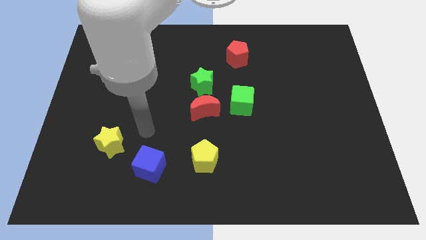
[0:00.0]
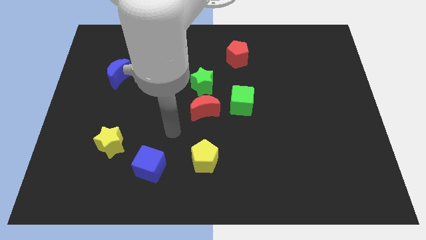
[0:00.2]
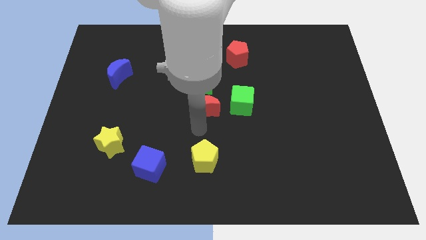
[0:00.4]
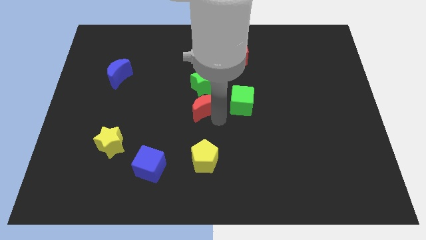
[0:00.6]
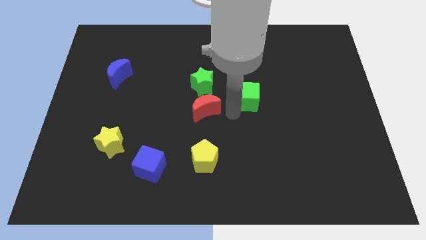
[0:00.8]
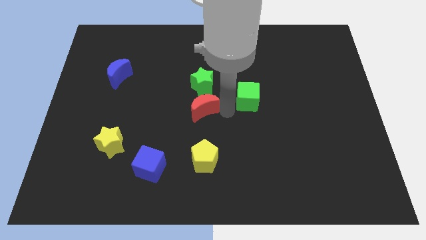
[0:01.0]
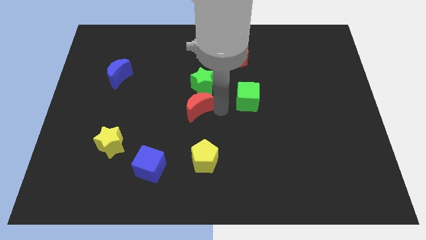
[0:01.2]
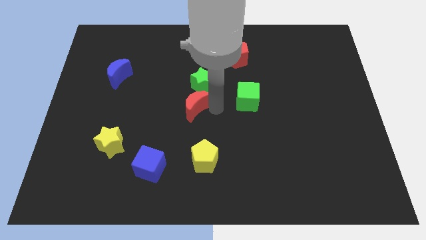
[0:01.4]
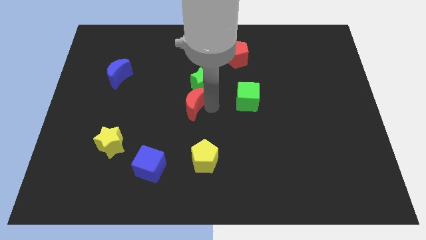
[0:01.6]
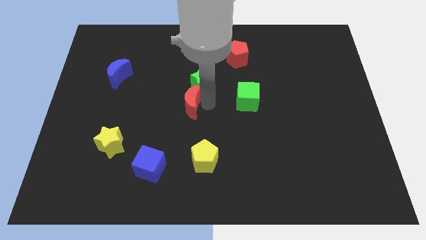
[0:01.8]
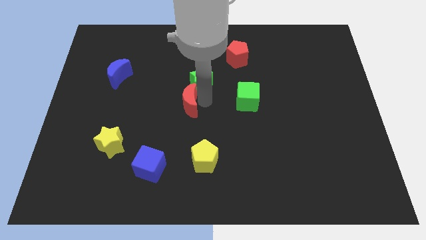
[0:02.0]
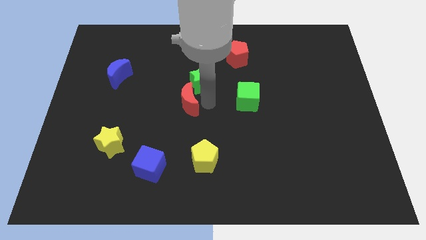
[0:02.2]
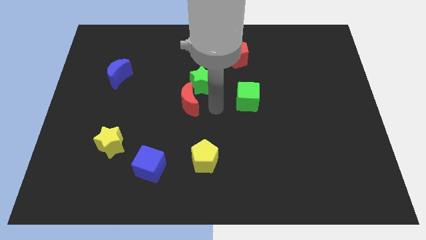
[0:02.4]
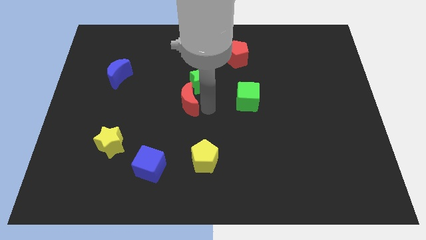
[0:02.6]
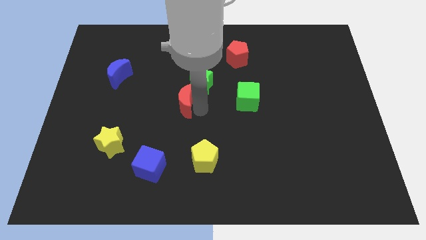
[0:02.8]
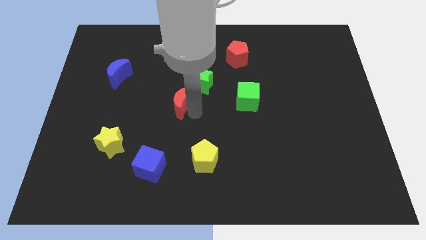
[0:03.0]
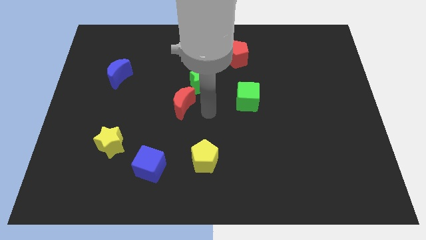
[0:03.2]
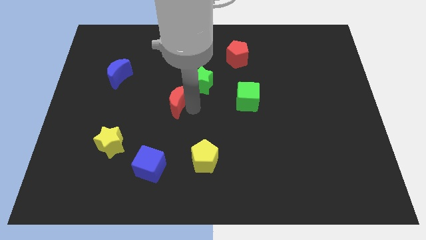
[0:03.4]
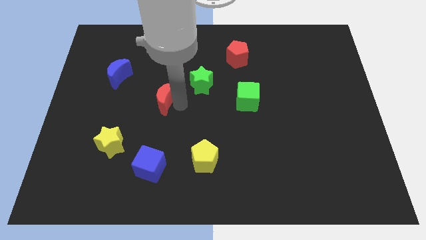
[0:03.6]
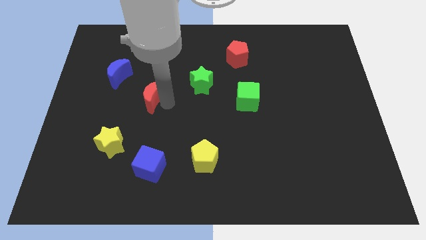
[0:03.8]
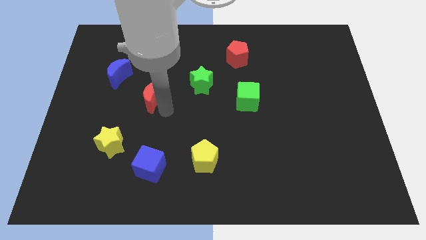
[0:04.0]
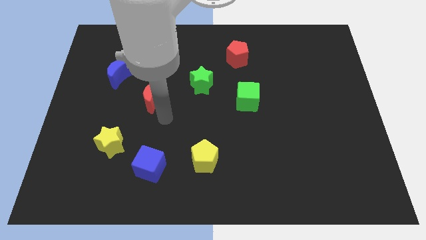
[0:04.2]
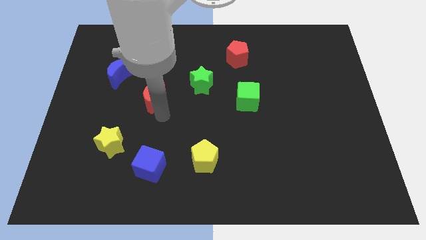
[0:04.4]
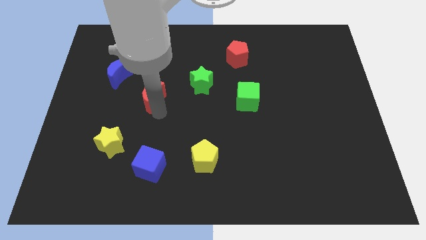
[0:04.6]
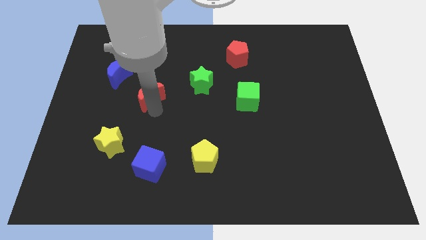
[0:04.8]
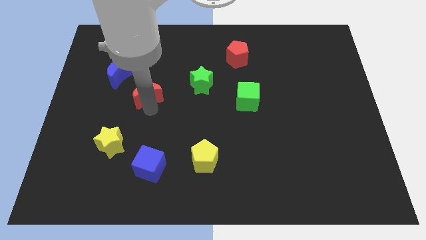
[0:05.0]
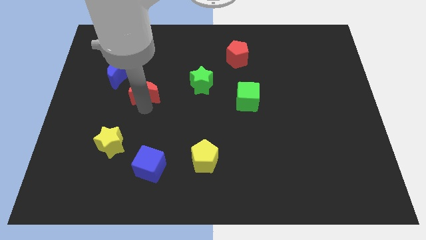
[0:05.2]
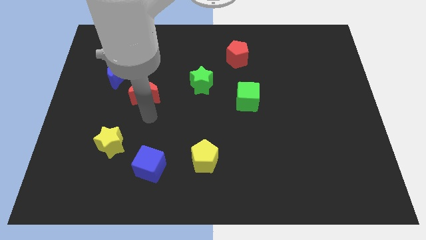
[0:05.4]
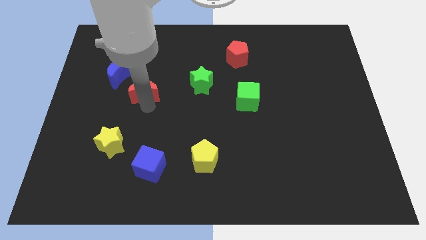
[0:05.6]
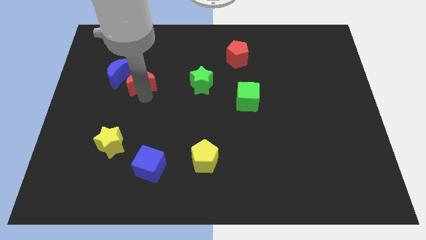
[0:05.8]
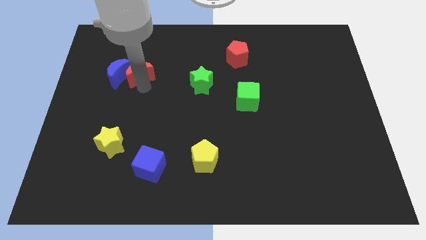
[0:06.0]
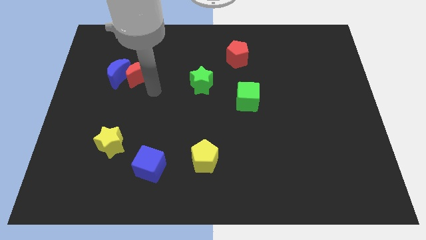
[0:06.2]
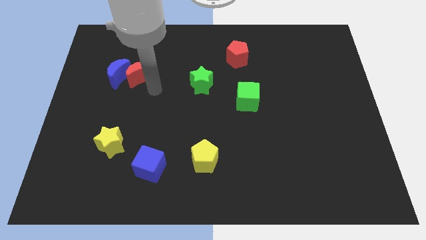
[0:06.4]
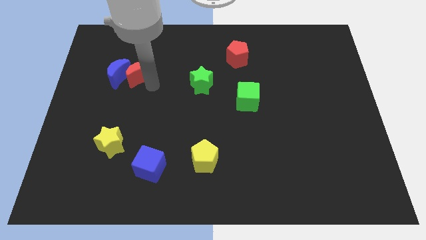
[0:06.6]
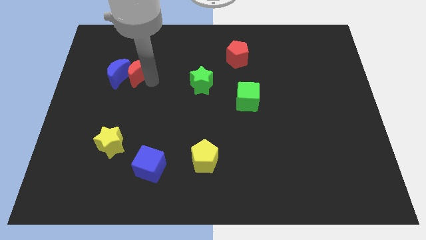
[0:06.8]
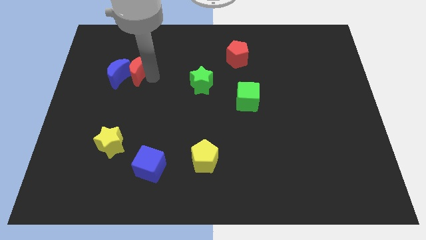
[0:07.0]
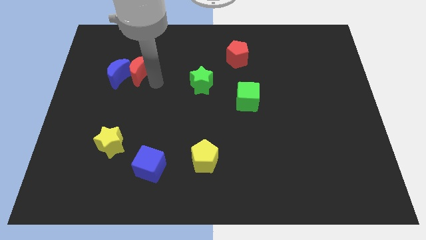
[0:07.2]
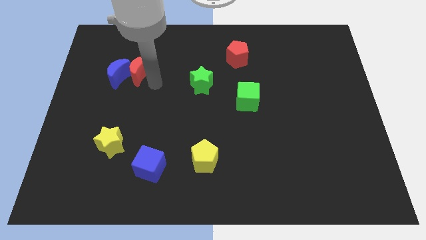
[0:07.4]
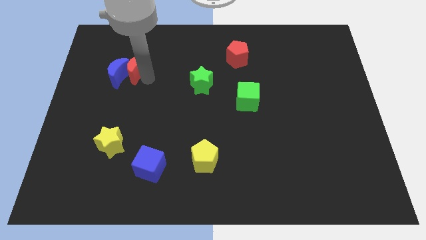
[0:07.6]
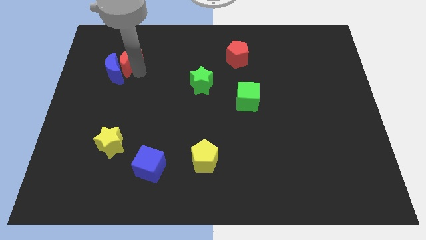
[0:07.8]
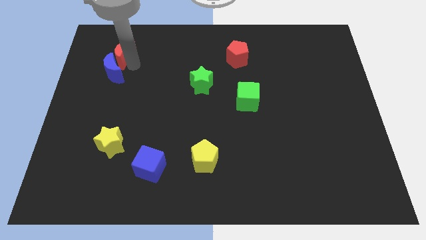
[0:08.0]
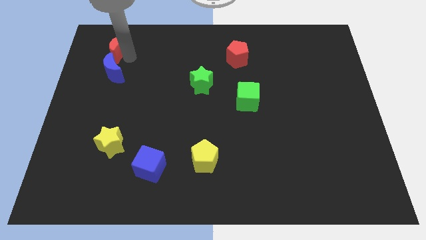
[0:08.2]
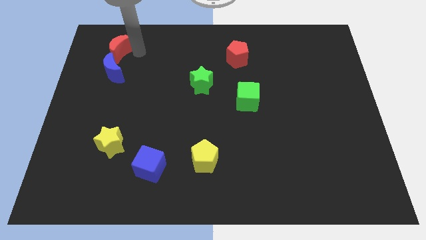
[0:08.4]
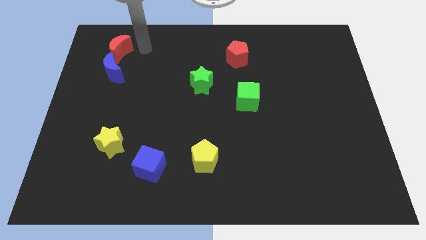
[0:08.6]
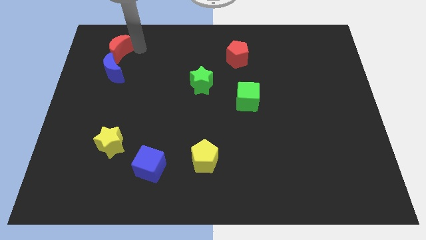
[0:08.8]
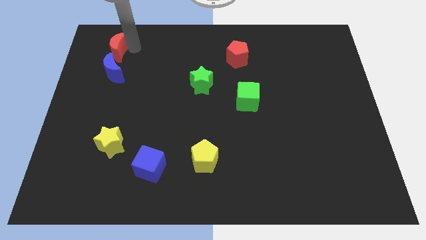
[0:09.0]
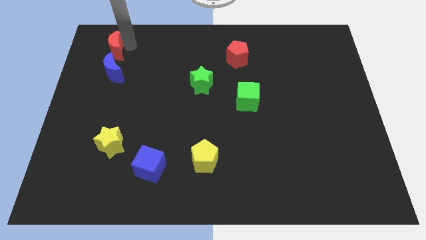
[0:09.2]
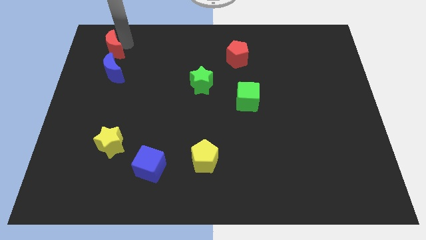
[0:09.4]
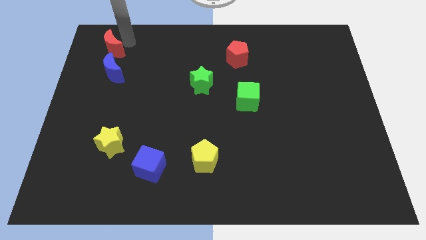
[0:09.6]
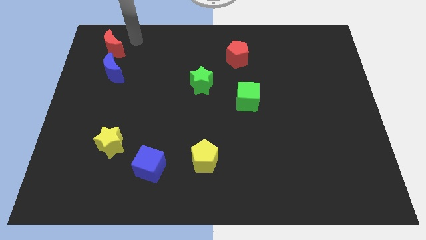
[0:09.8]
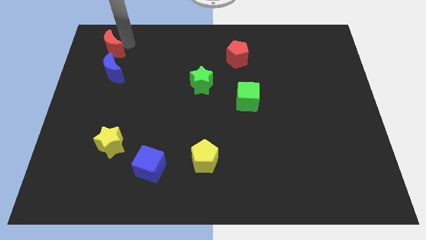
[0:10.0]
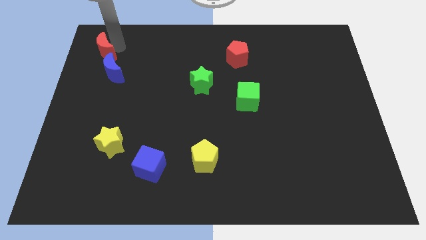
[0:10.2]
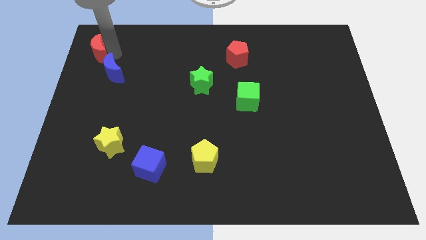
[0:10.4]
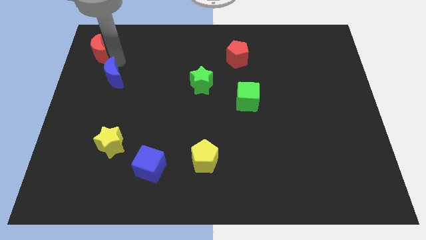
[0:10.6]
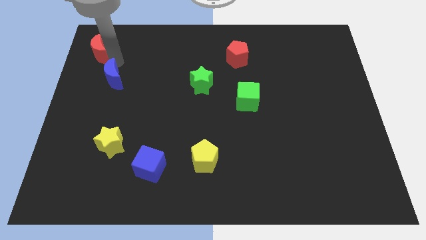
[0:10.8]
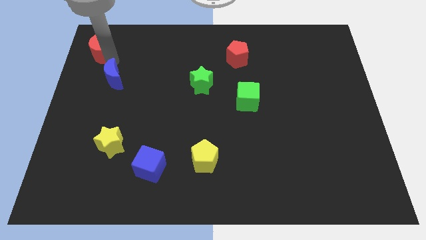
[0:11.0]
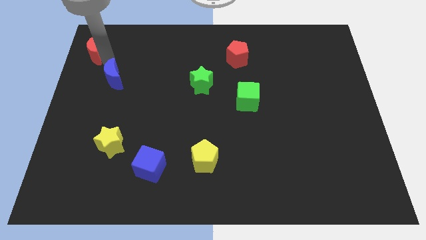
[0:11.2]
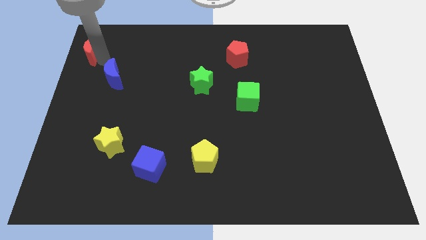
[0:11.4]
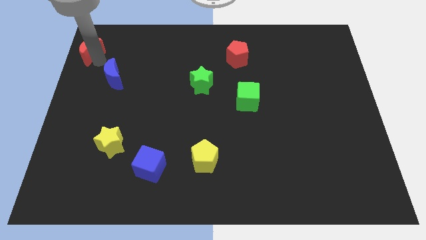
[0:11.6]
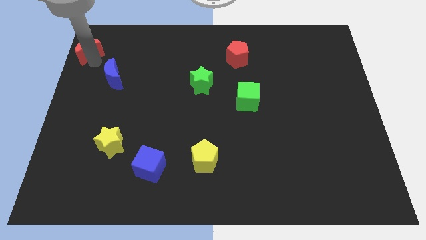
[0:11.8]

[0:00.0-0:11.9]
slide the red moon to the top left of the board

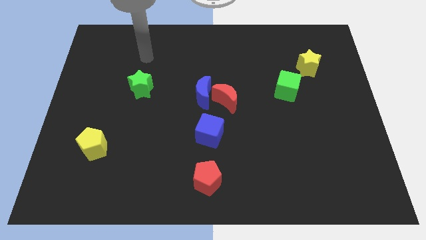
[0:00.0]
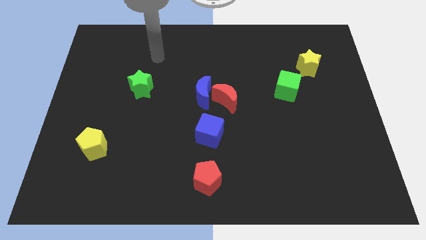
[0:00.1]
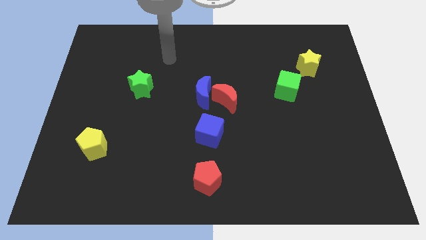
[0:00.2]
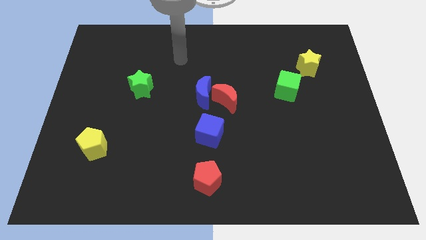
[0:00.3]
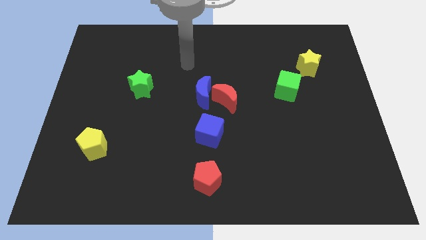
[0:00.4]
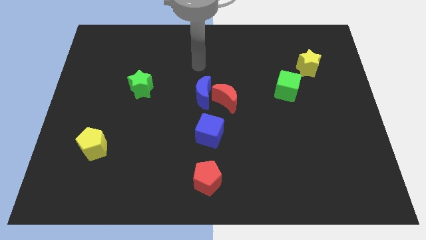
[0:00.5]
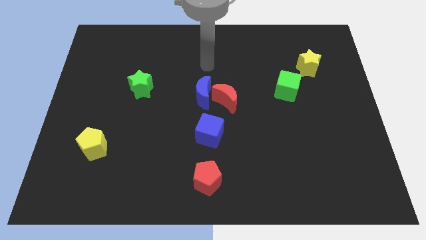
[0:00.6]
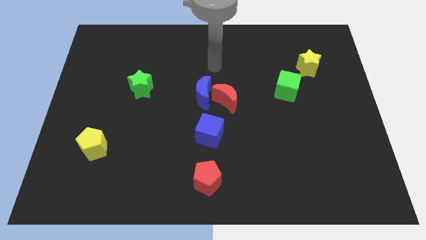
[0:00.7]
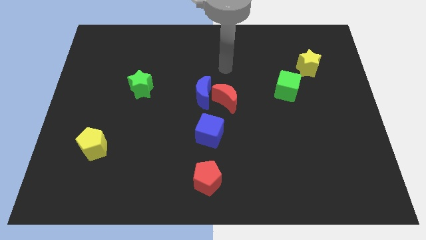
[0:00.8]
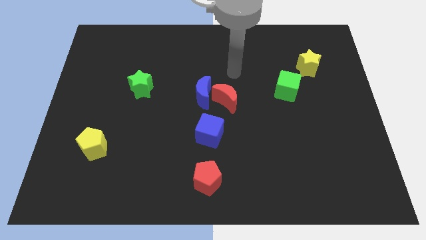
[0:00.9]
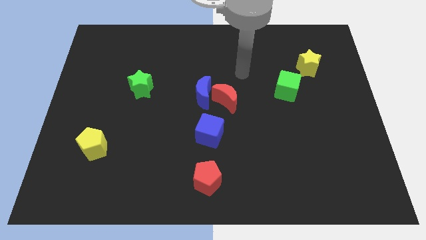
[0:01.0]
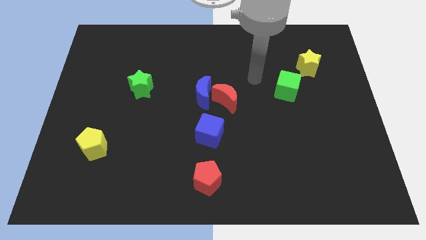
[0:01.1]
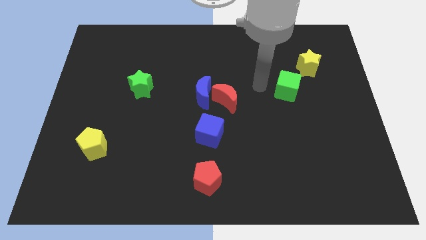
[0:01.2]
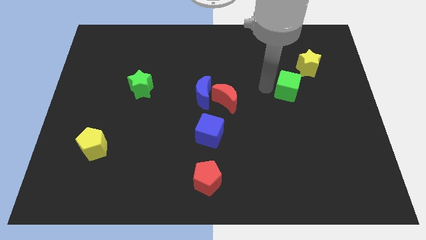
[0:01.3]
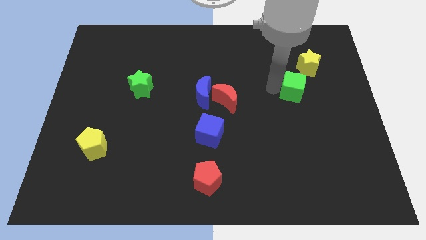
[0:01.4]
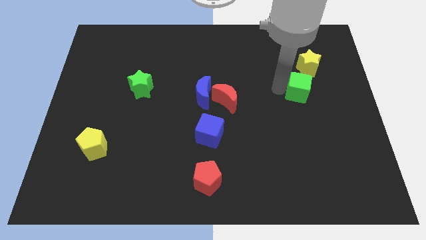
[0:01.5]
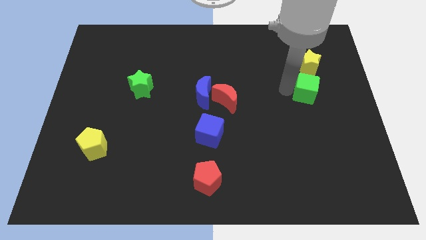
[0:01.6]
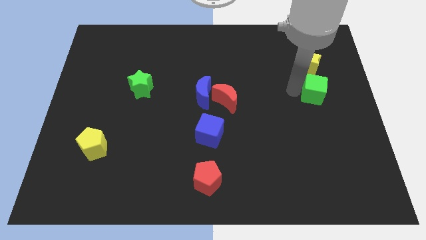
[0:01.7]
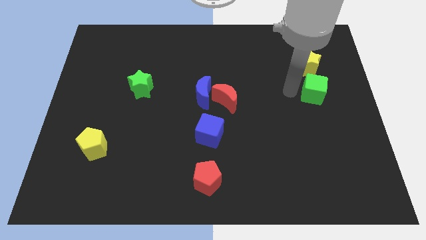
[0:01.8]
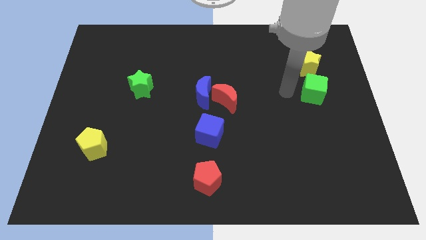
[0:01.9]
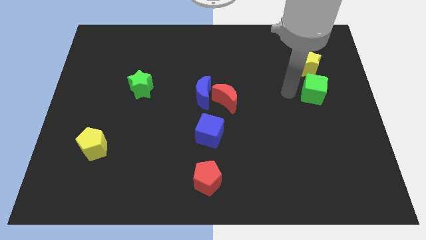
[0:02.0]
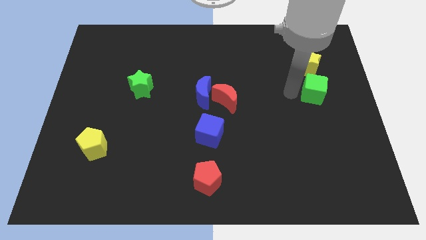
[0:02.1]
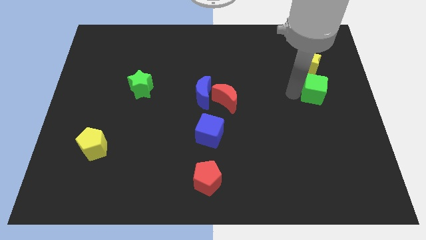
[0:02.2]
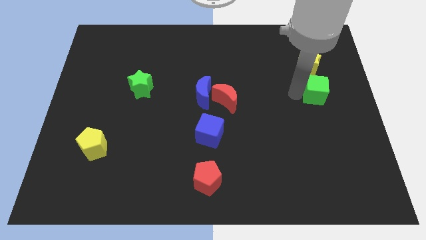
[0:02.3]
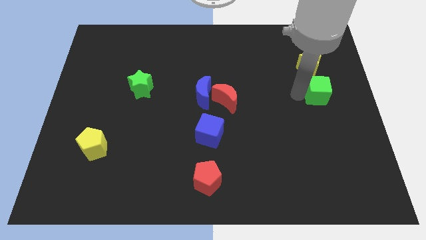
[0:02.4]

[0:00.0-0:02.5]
move the green cube to the center right
